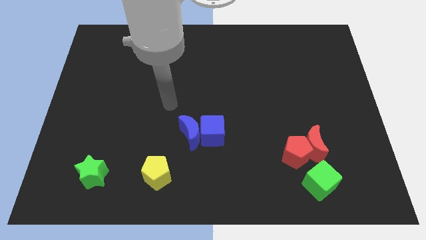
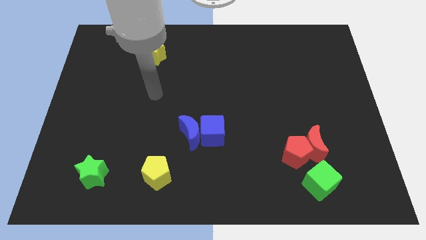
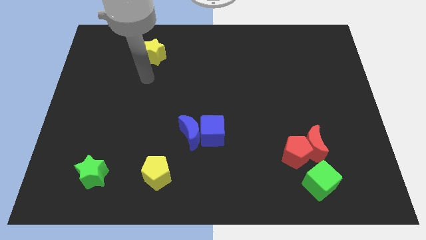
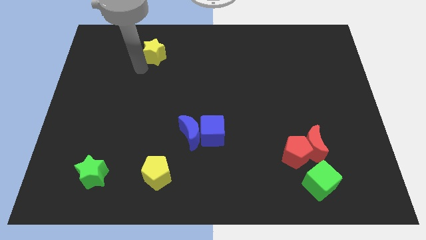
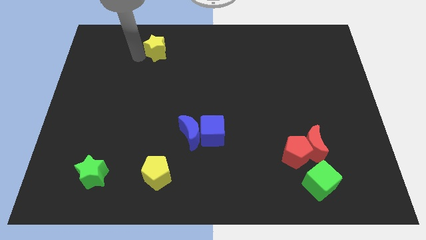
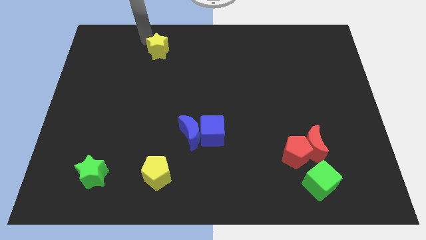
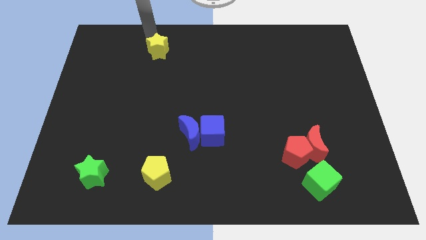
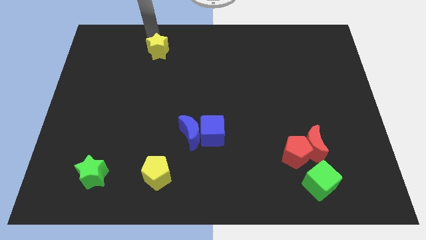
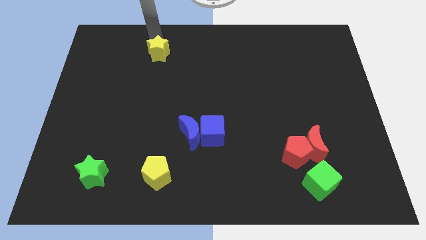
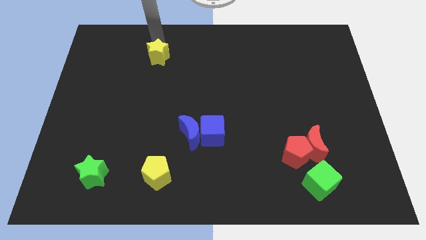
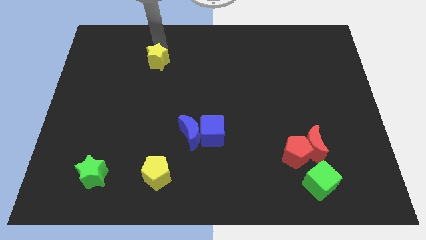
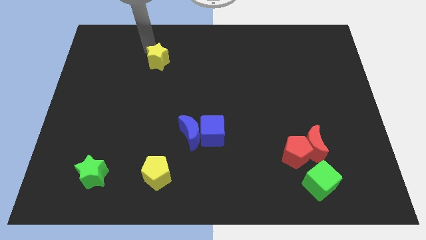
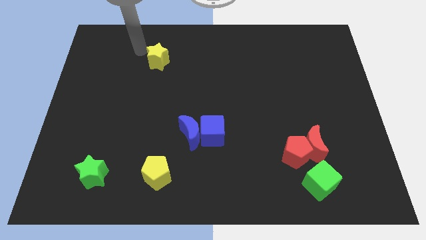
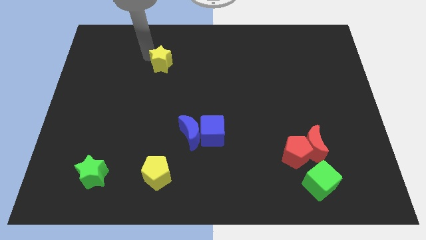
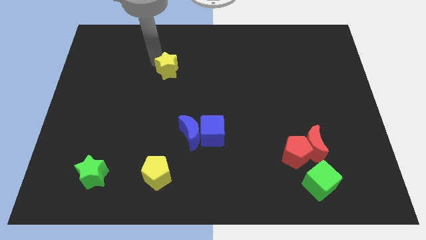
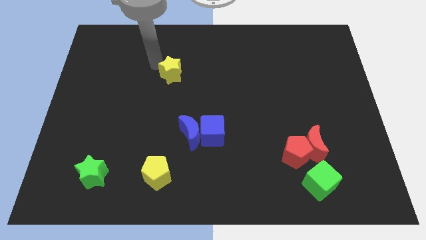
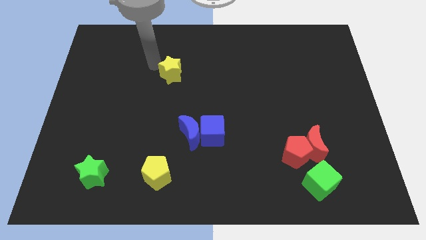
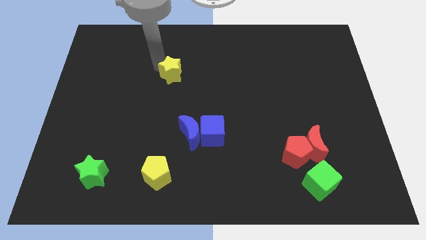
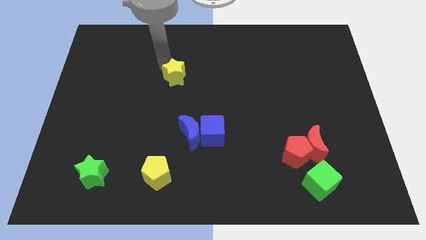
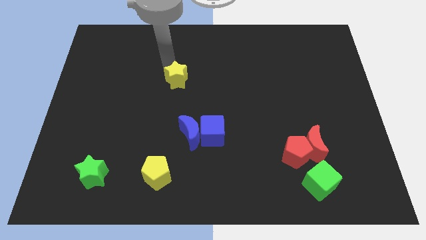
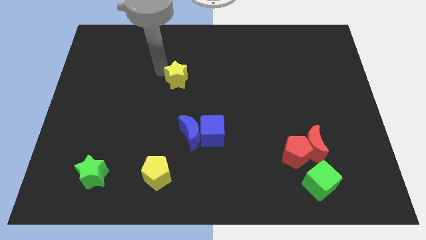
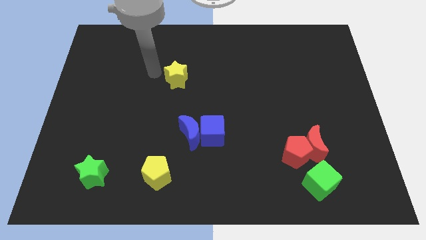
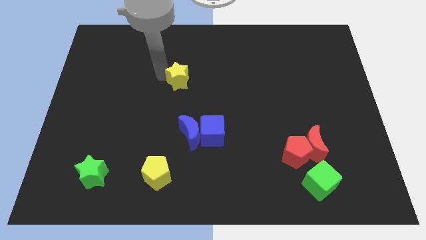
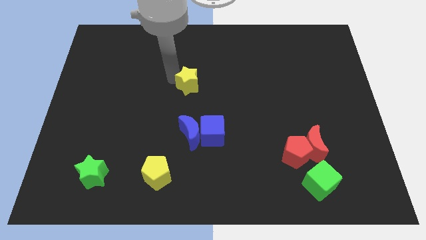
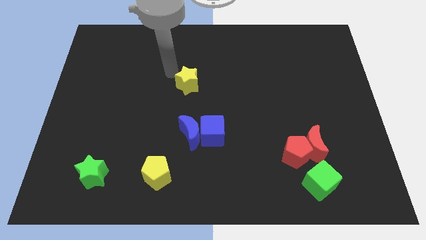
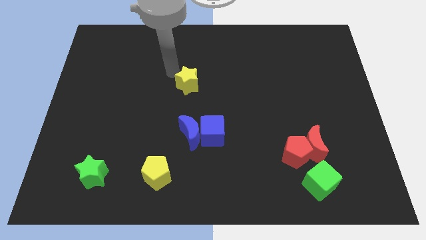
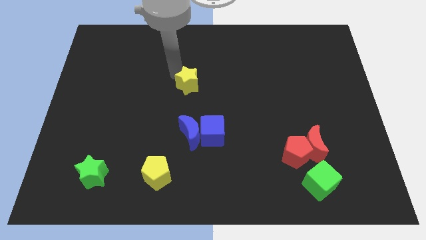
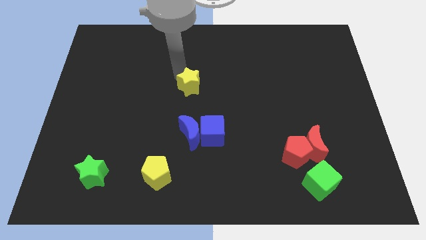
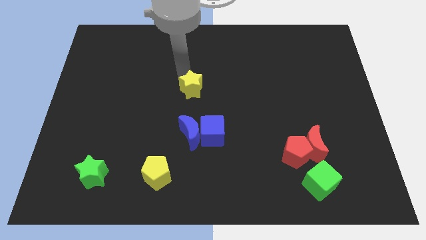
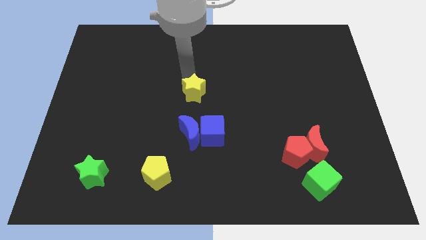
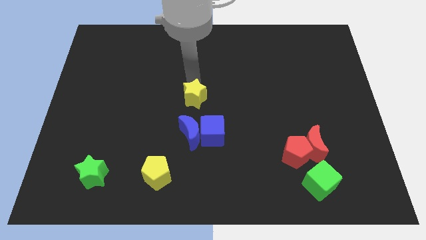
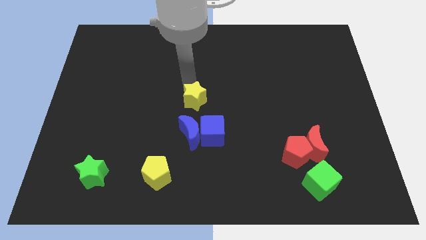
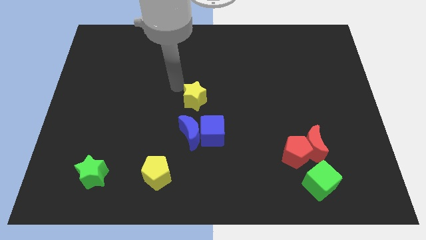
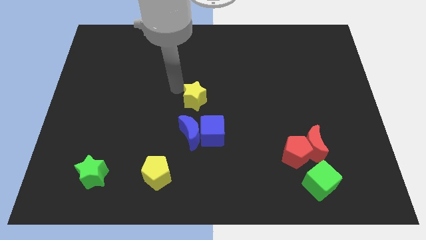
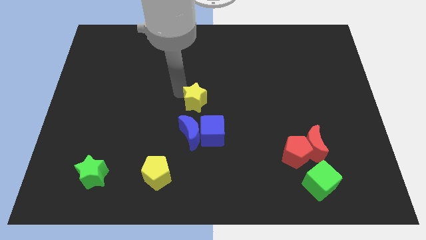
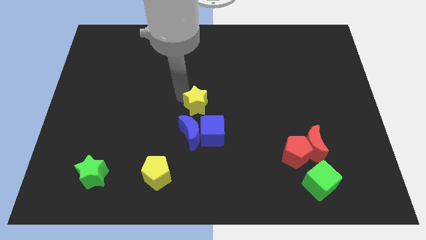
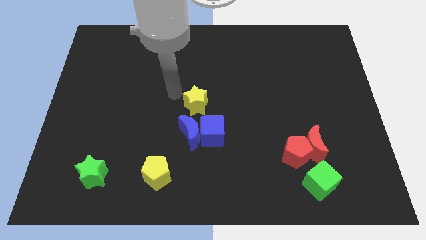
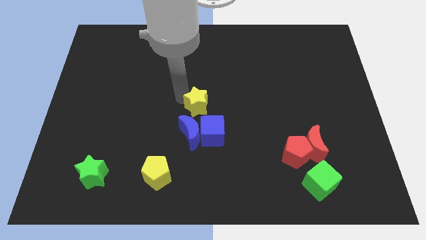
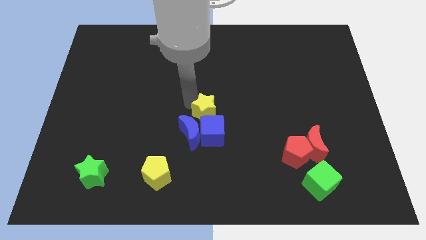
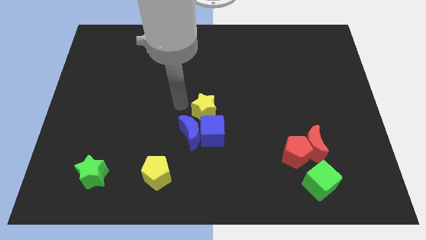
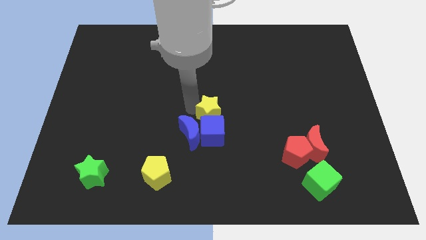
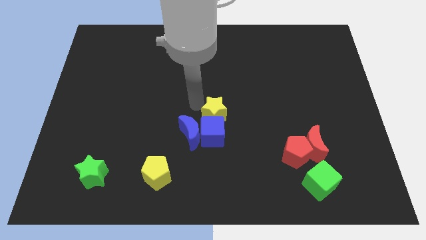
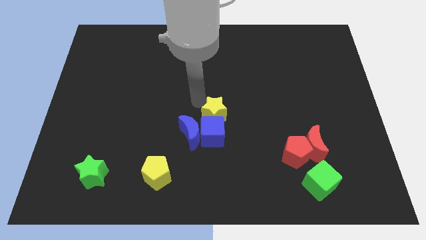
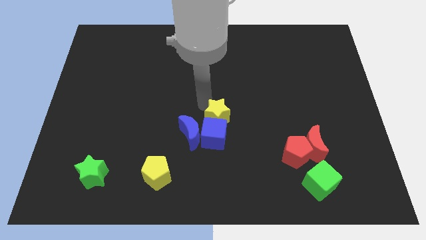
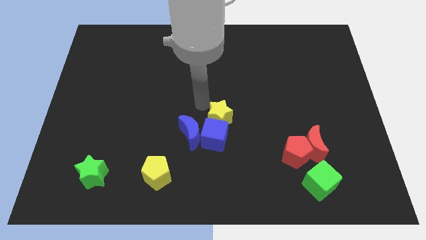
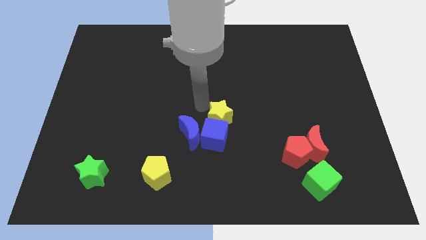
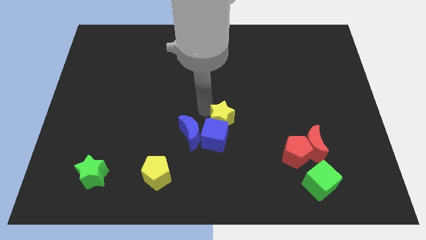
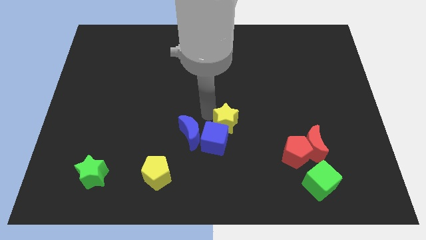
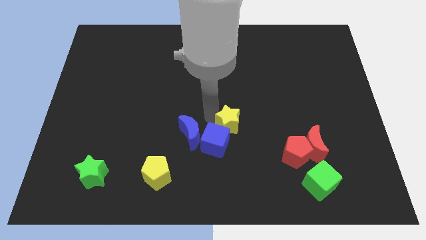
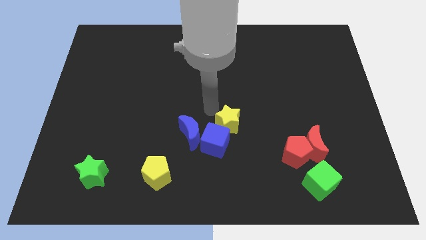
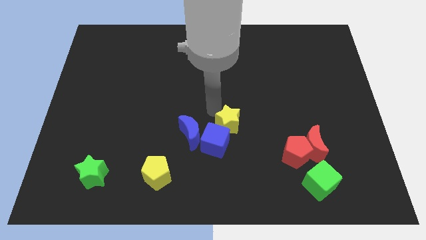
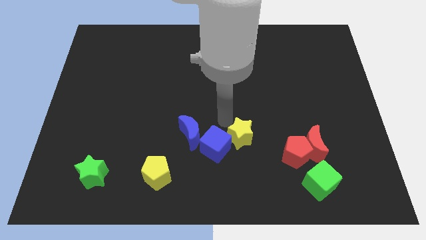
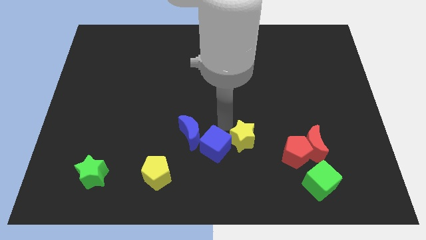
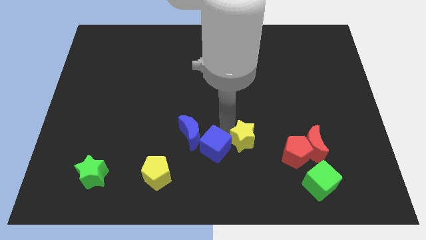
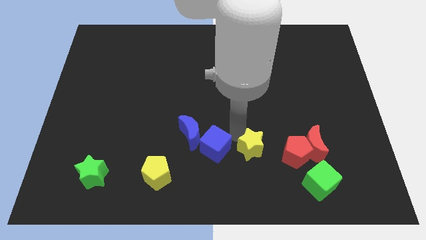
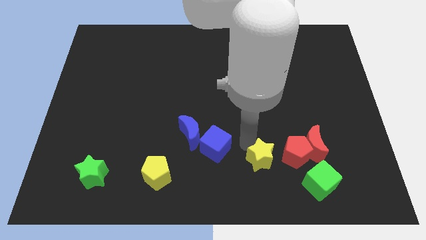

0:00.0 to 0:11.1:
push the yellow star diagonally down and to the left of the red pentagon

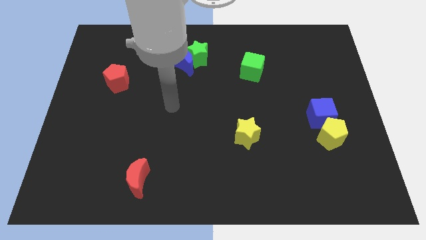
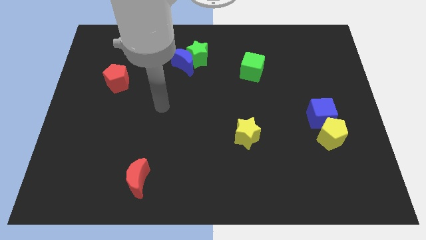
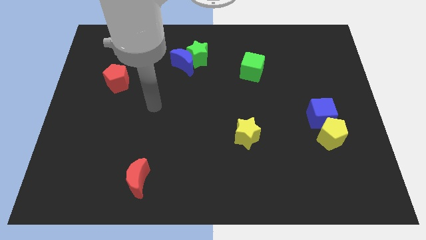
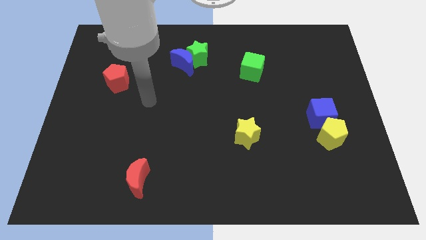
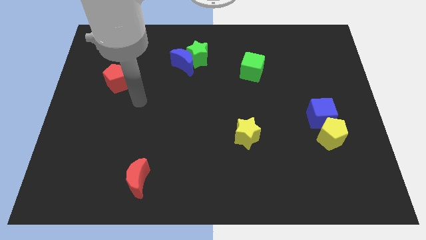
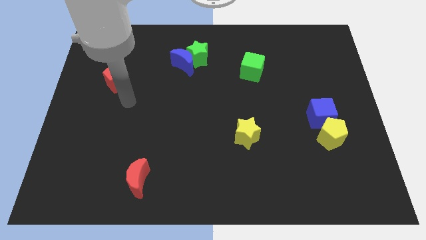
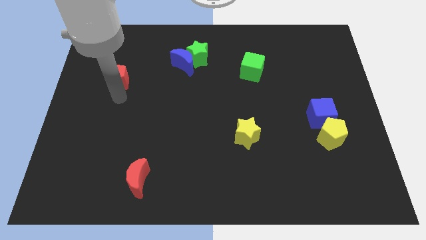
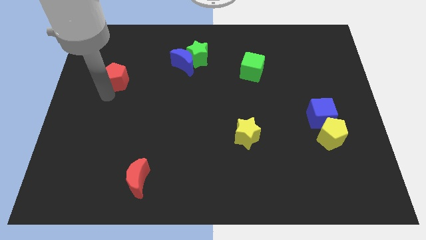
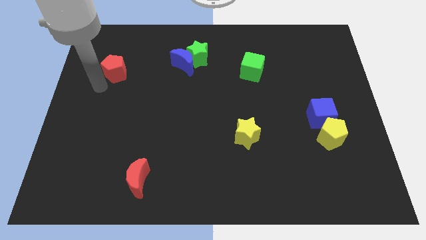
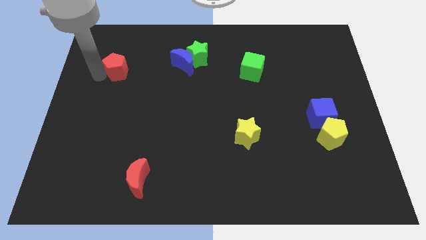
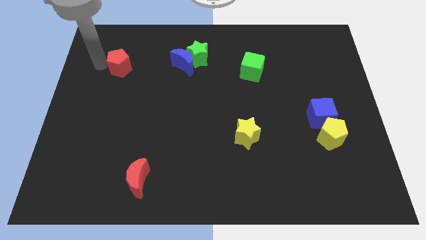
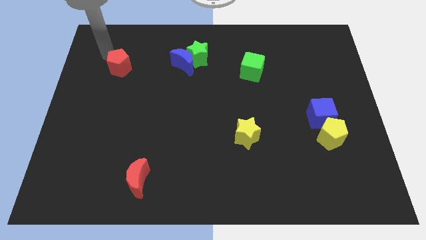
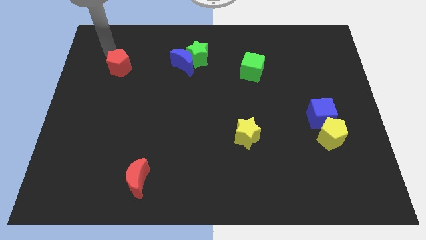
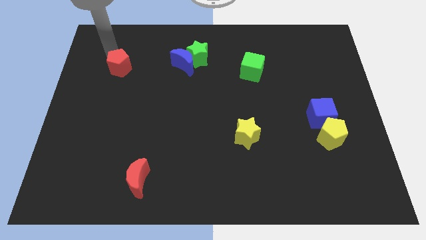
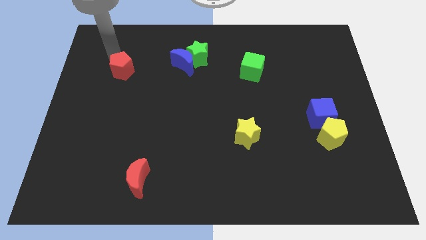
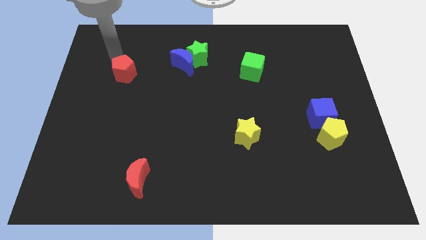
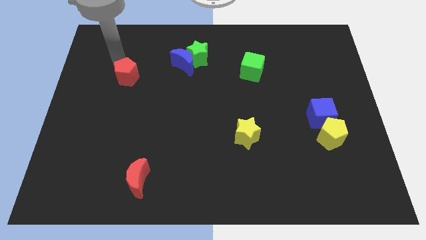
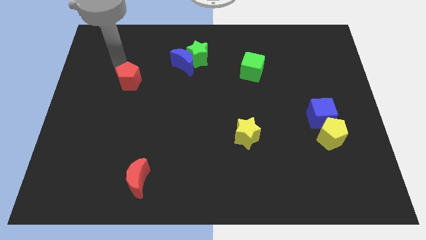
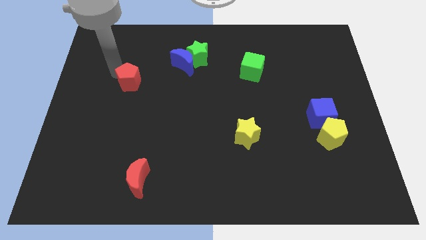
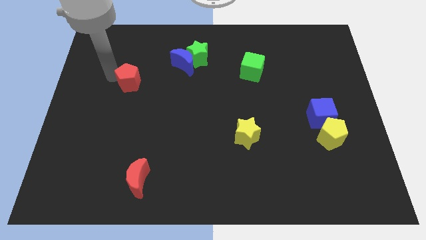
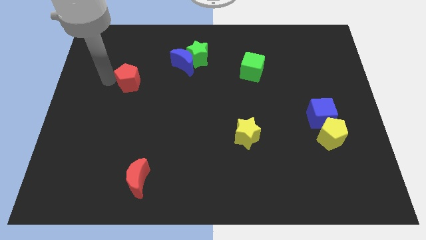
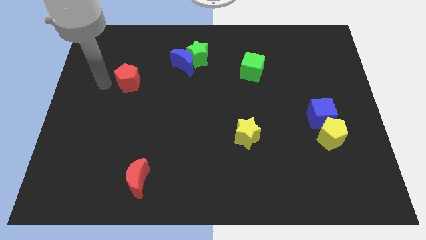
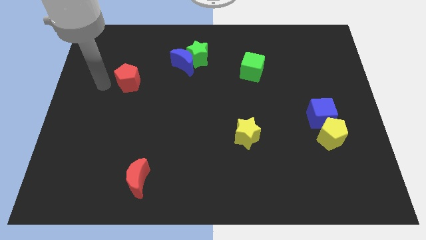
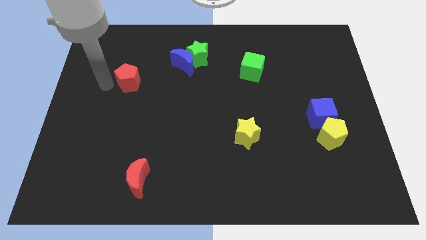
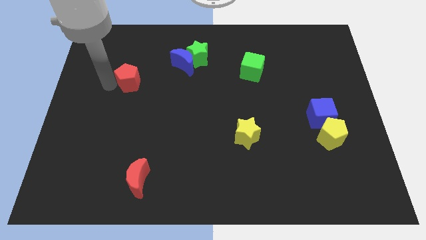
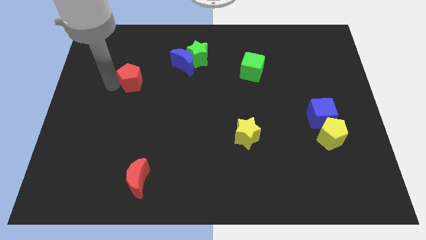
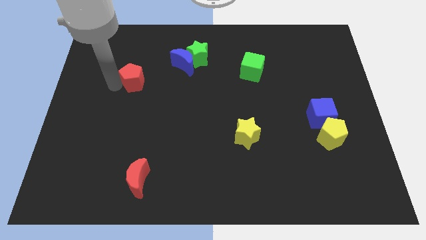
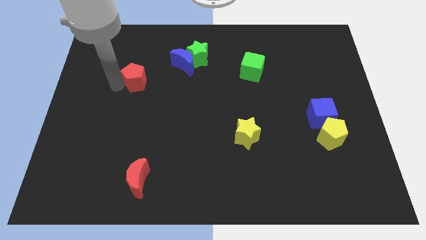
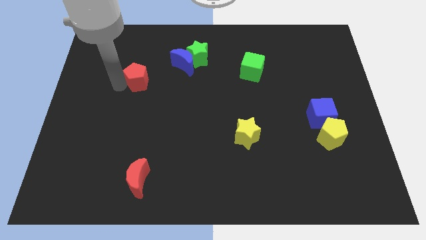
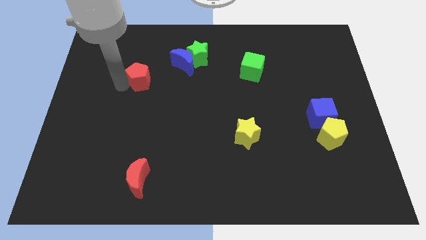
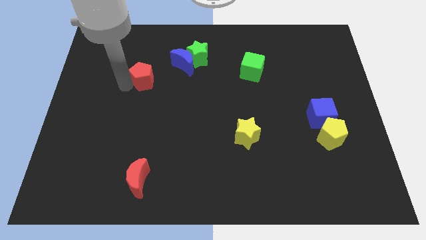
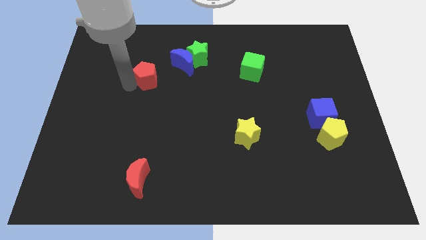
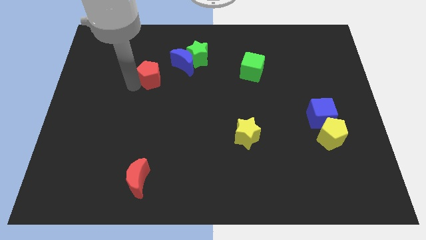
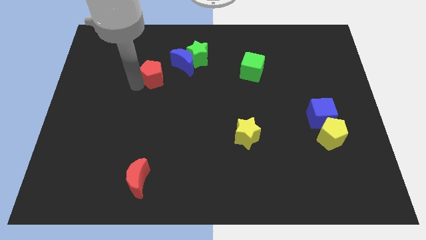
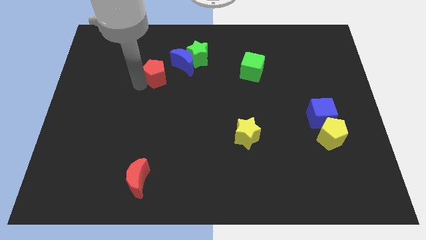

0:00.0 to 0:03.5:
push the red pentagon diagonally down and to the left of the green star
